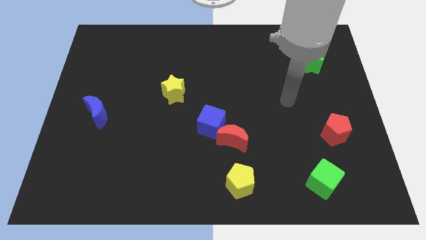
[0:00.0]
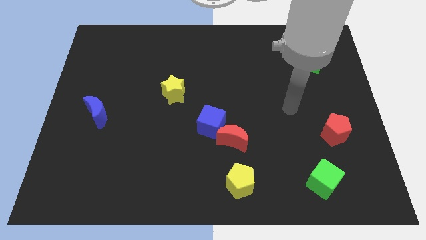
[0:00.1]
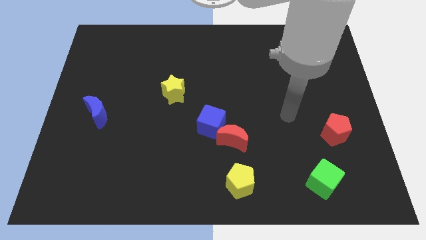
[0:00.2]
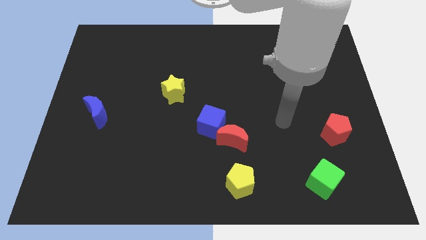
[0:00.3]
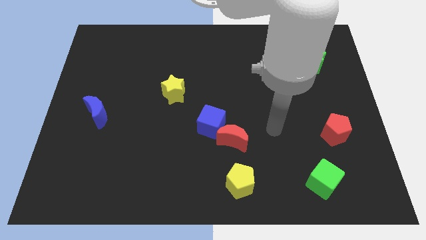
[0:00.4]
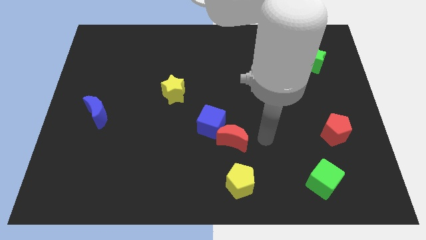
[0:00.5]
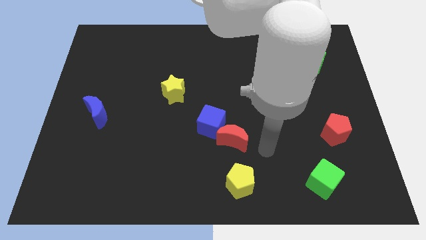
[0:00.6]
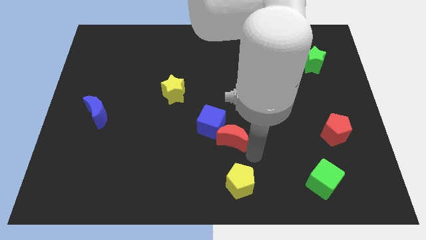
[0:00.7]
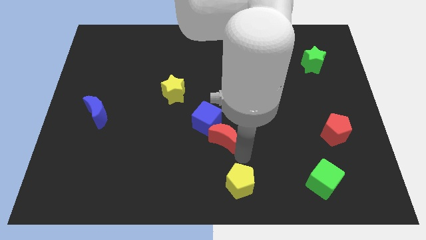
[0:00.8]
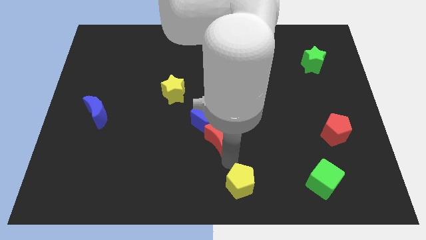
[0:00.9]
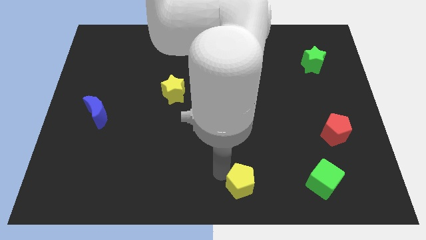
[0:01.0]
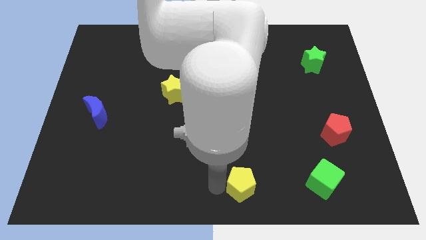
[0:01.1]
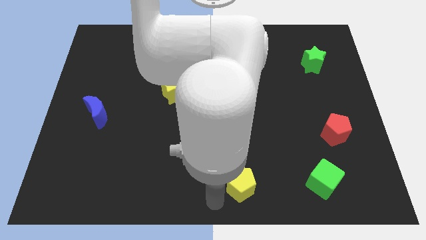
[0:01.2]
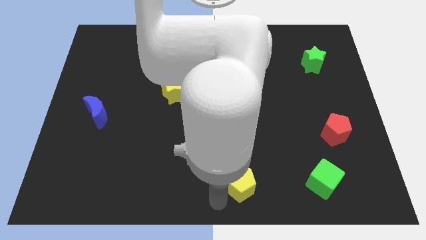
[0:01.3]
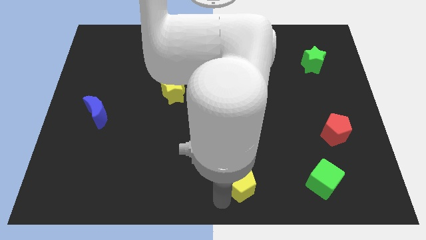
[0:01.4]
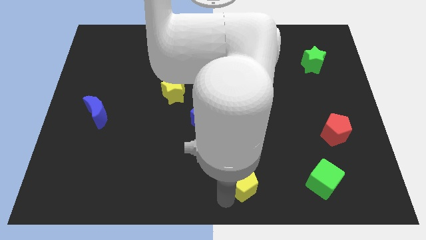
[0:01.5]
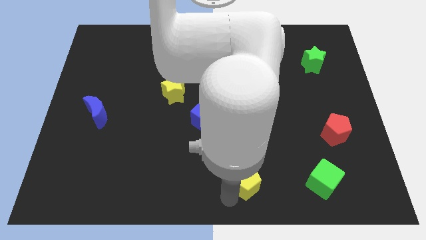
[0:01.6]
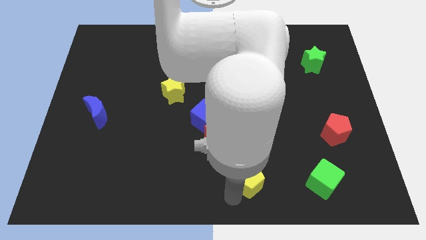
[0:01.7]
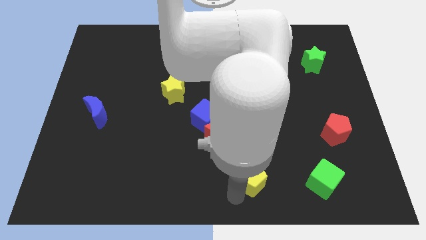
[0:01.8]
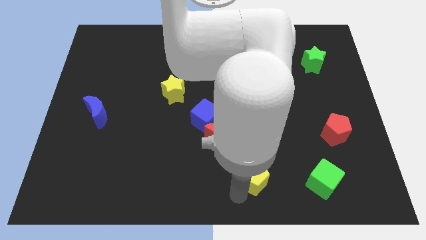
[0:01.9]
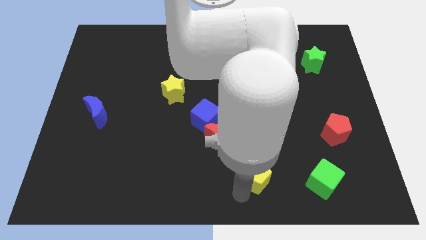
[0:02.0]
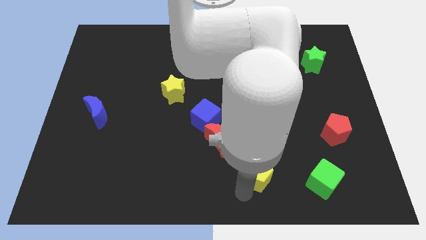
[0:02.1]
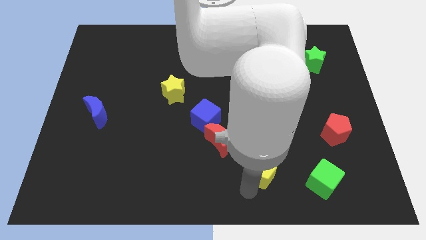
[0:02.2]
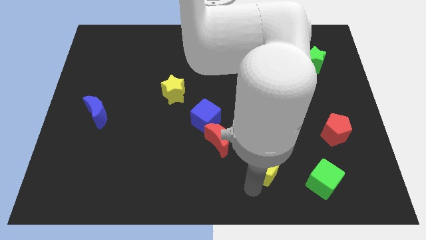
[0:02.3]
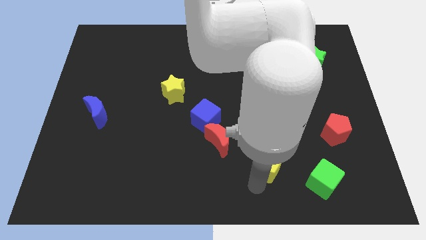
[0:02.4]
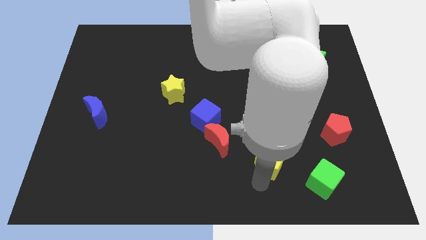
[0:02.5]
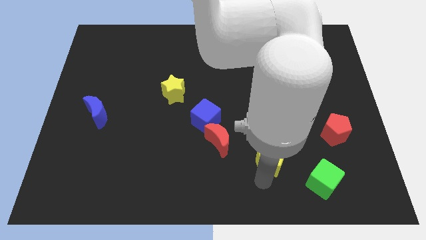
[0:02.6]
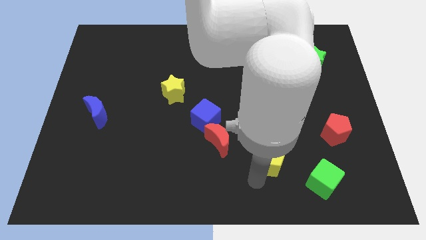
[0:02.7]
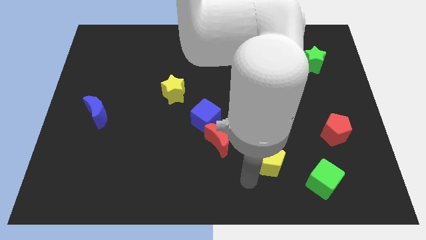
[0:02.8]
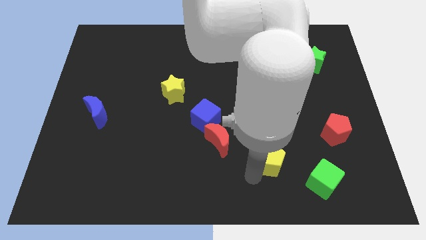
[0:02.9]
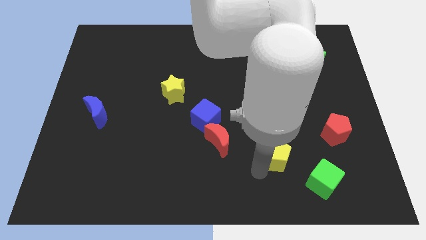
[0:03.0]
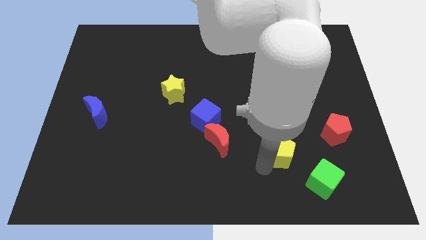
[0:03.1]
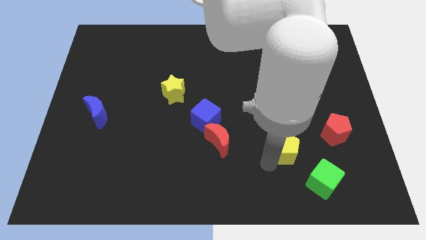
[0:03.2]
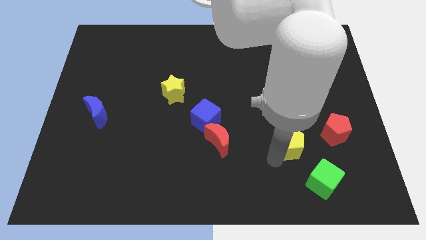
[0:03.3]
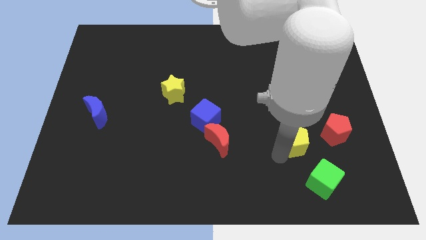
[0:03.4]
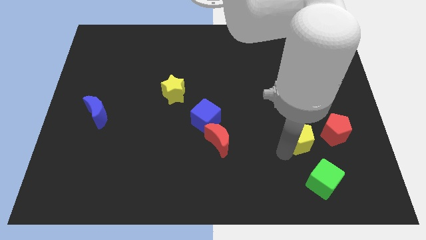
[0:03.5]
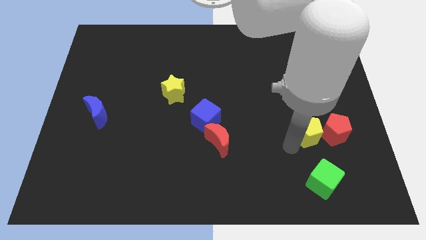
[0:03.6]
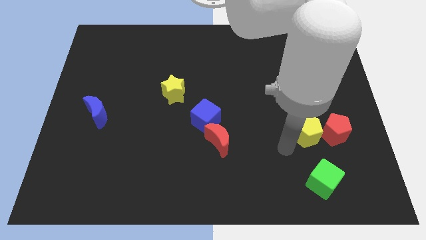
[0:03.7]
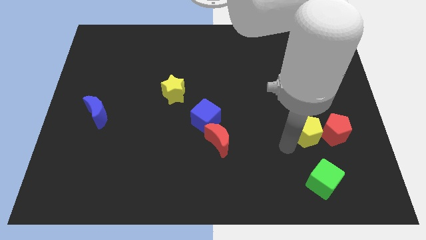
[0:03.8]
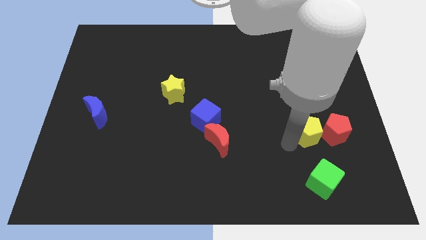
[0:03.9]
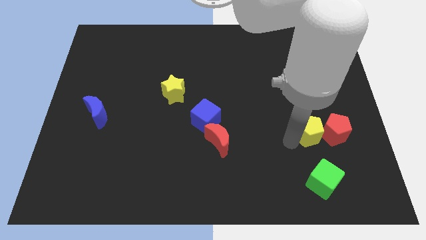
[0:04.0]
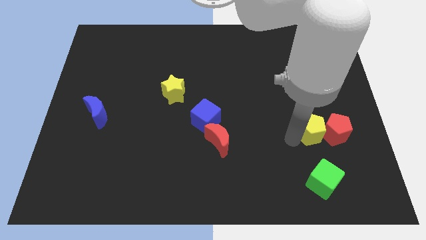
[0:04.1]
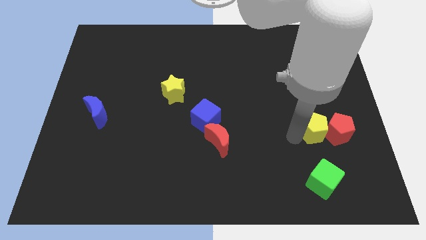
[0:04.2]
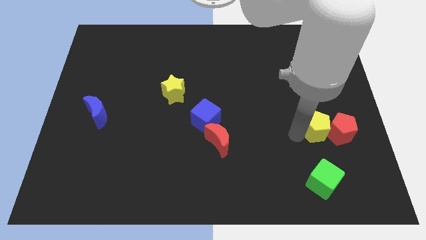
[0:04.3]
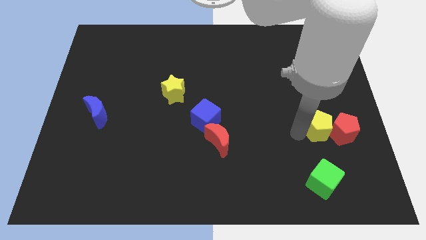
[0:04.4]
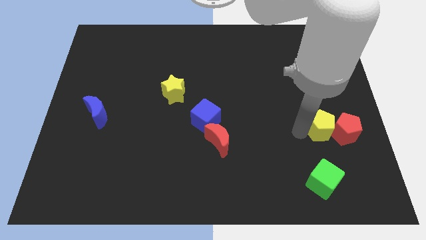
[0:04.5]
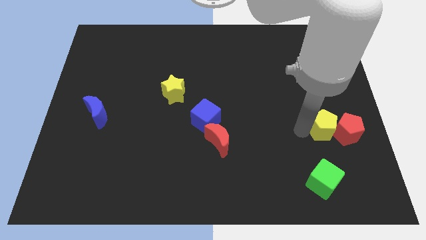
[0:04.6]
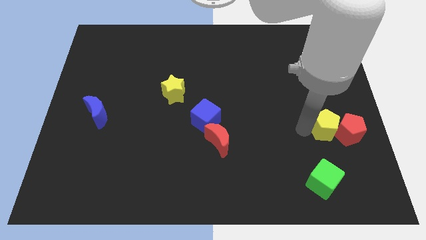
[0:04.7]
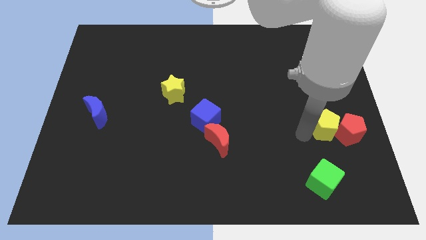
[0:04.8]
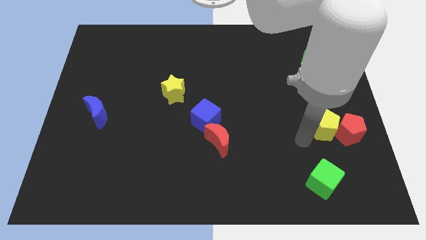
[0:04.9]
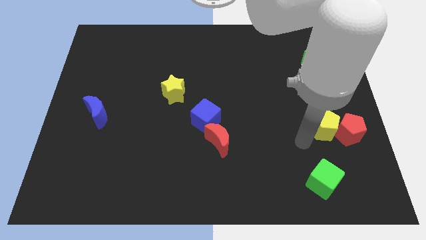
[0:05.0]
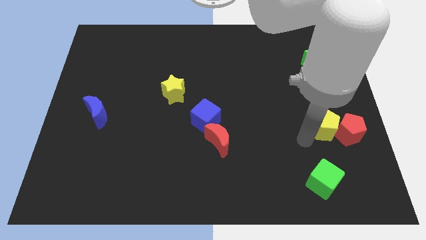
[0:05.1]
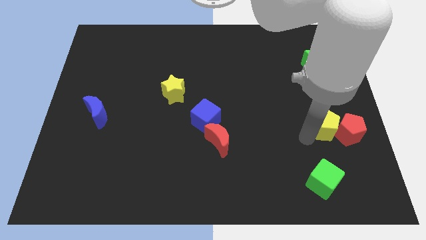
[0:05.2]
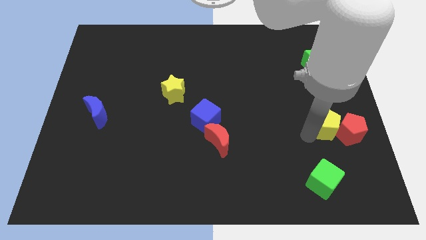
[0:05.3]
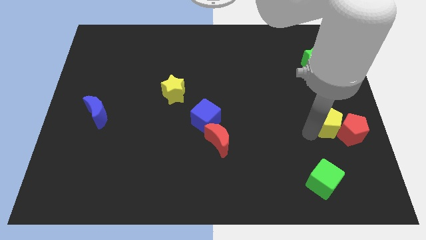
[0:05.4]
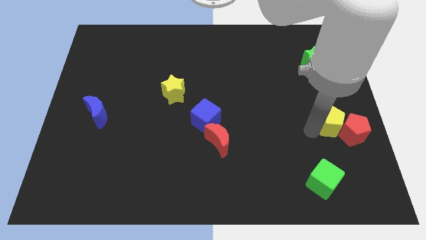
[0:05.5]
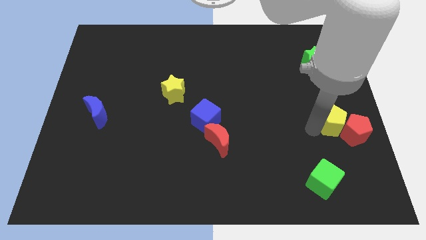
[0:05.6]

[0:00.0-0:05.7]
put the yellow pentagon to the center right

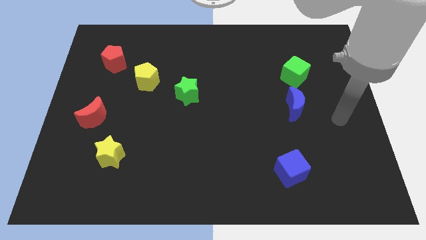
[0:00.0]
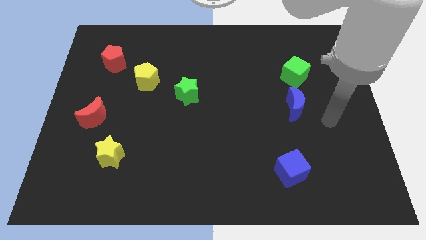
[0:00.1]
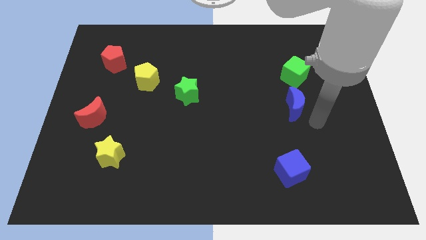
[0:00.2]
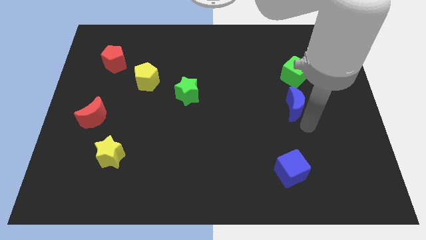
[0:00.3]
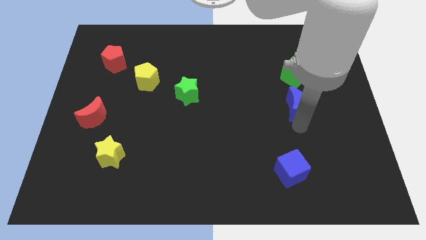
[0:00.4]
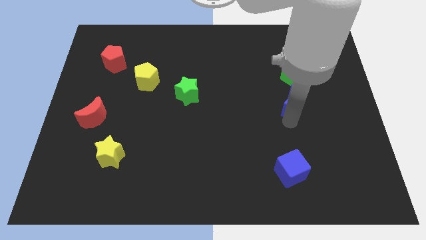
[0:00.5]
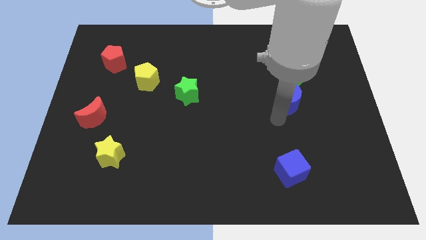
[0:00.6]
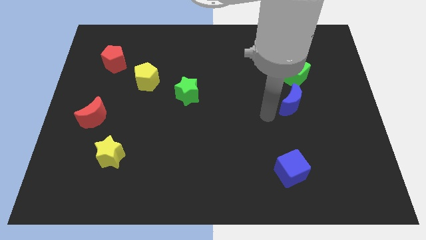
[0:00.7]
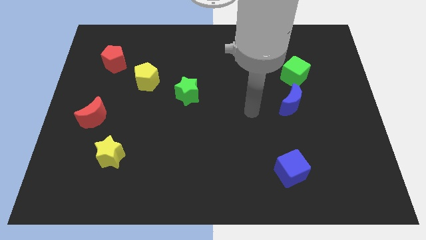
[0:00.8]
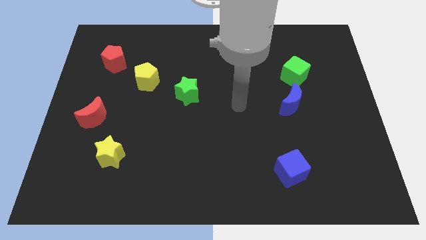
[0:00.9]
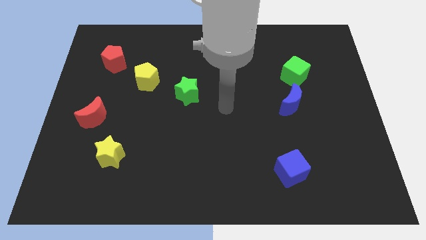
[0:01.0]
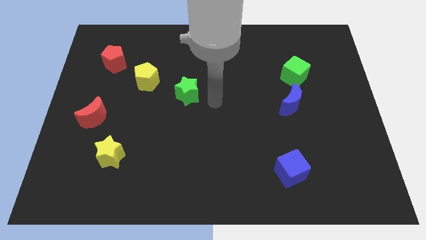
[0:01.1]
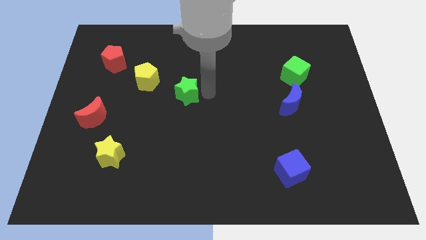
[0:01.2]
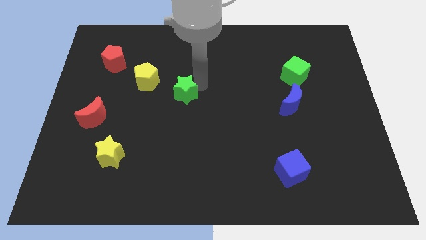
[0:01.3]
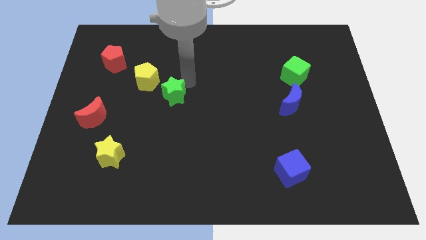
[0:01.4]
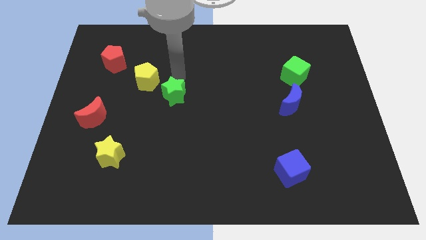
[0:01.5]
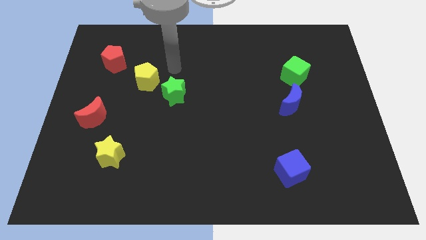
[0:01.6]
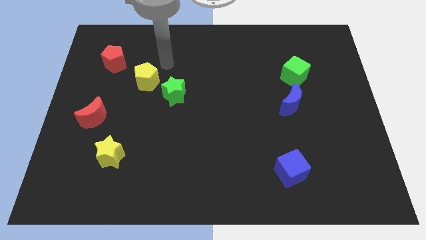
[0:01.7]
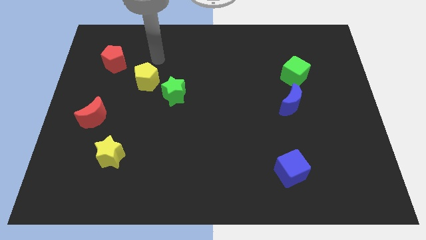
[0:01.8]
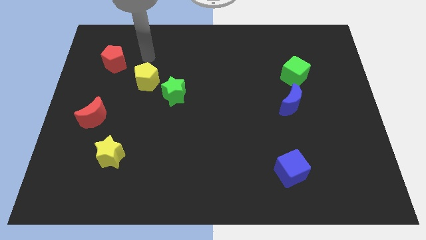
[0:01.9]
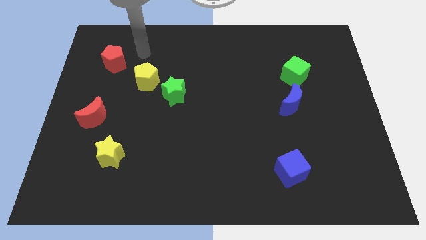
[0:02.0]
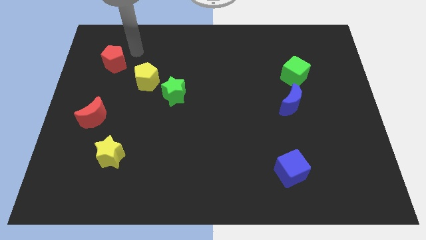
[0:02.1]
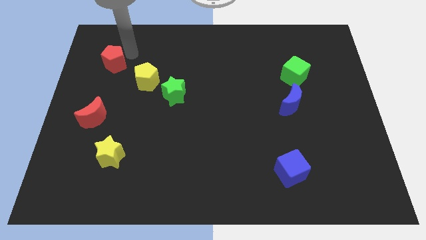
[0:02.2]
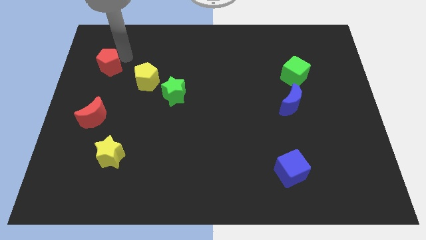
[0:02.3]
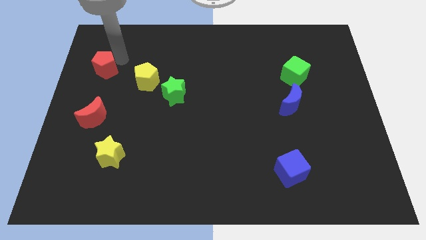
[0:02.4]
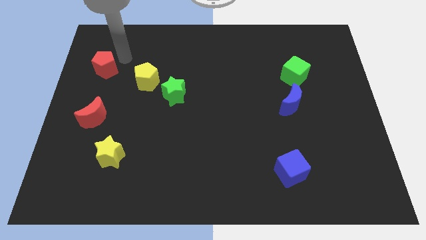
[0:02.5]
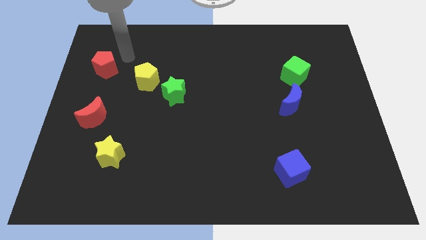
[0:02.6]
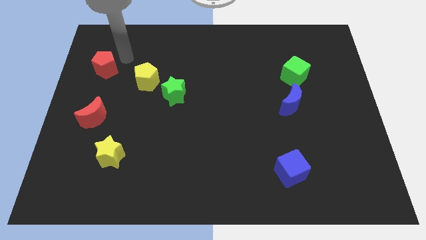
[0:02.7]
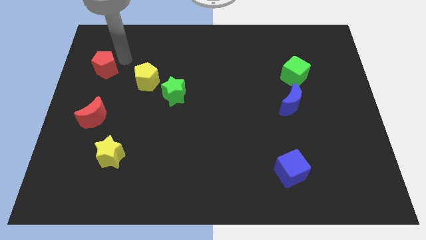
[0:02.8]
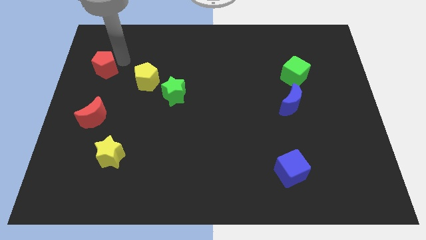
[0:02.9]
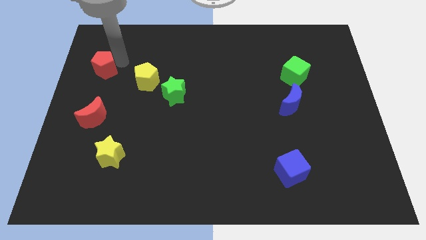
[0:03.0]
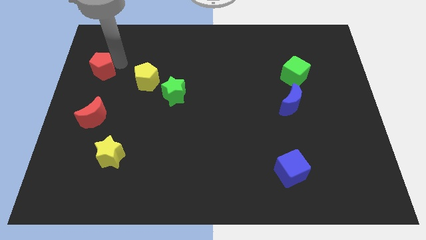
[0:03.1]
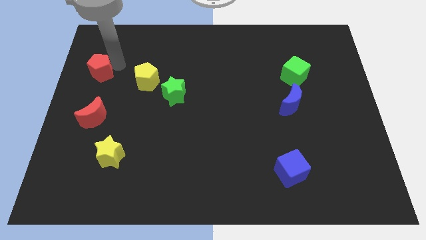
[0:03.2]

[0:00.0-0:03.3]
put the red pentagon to the left side of the board
